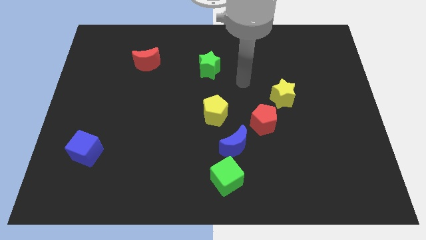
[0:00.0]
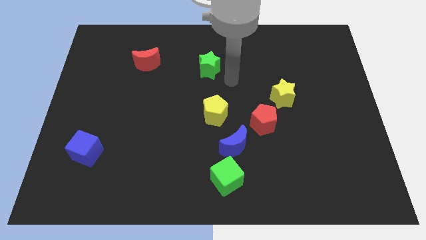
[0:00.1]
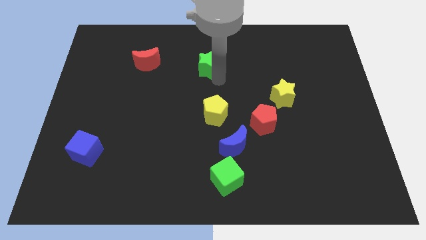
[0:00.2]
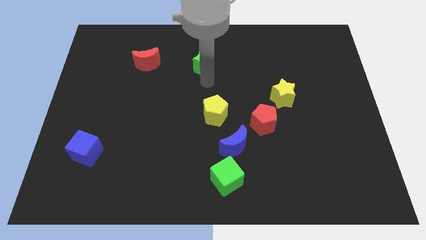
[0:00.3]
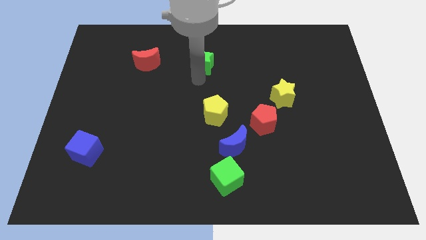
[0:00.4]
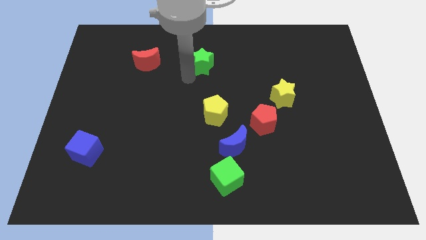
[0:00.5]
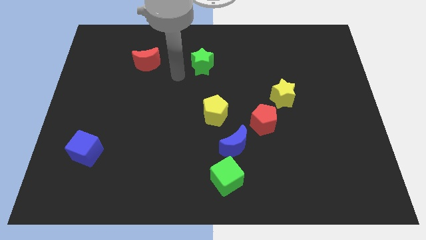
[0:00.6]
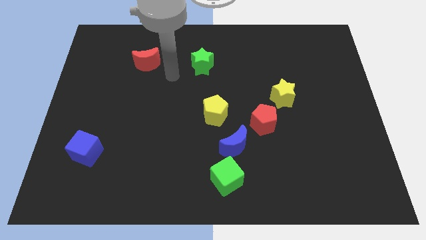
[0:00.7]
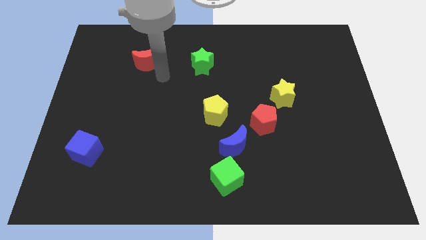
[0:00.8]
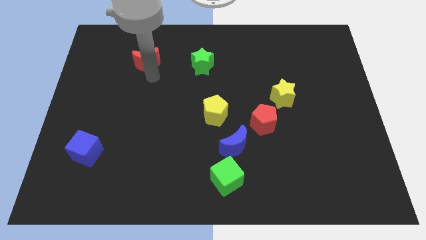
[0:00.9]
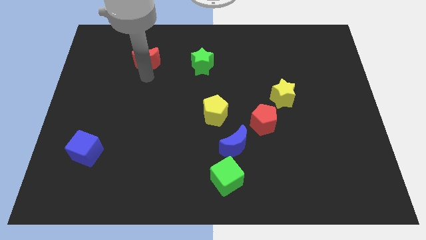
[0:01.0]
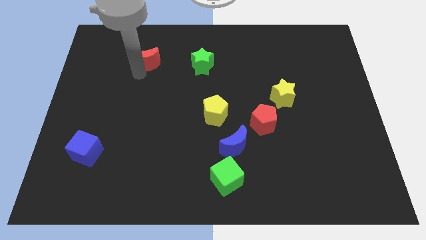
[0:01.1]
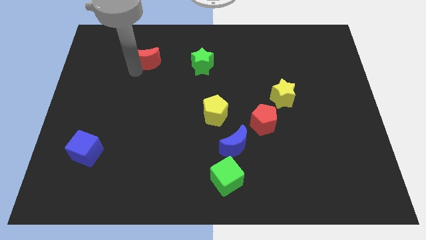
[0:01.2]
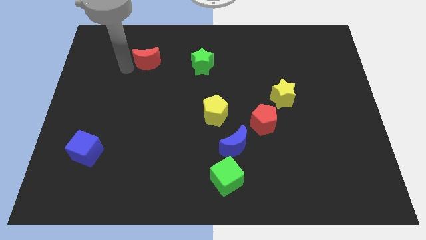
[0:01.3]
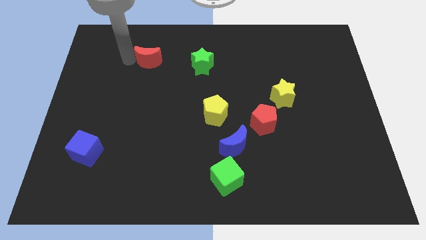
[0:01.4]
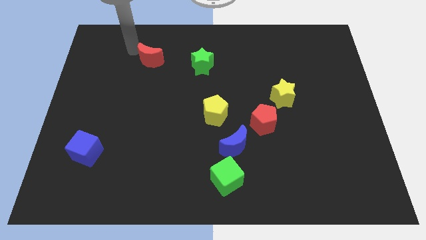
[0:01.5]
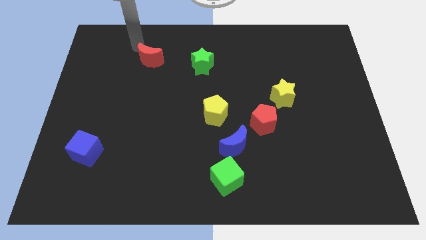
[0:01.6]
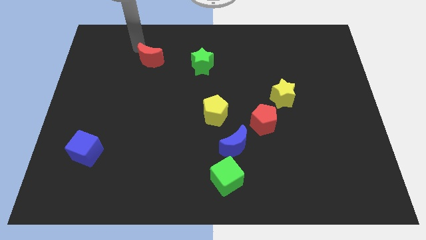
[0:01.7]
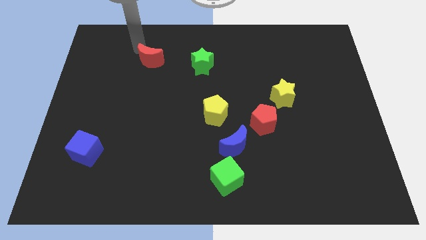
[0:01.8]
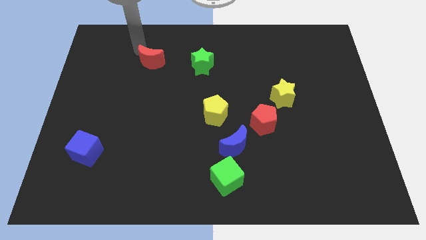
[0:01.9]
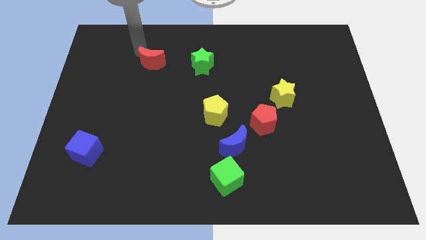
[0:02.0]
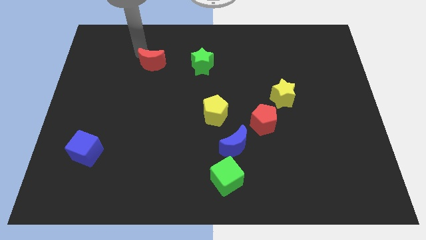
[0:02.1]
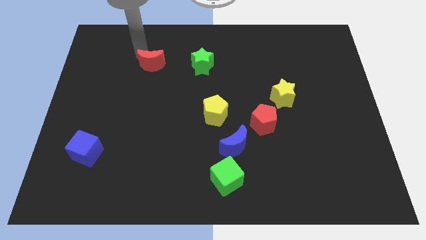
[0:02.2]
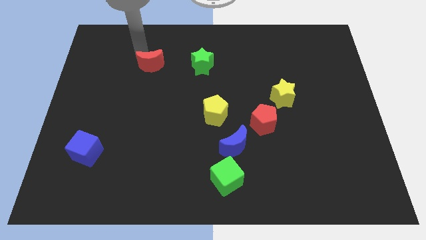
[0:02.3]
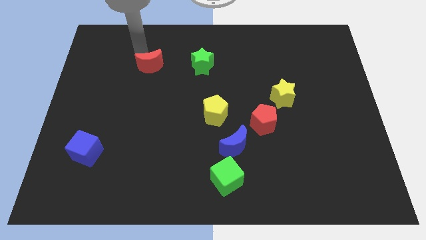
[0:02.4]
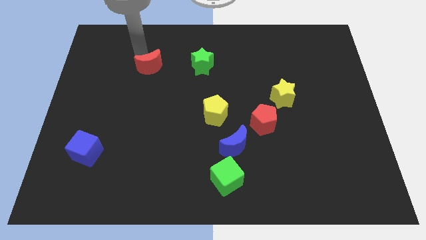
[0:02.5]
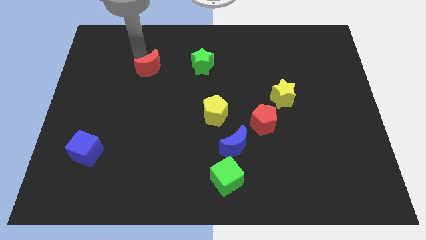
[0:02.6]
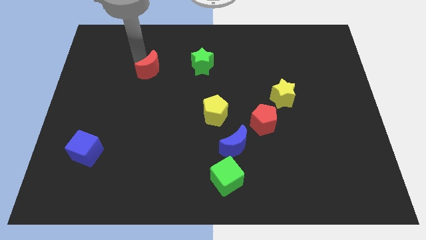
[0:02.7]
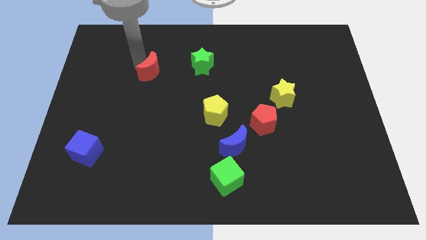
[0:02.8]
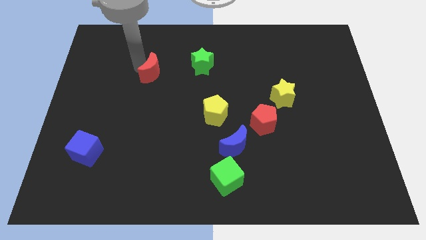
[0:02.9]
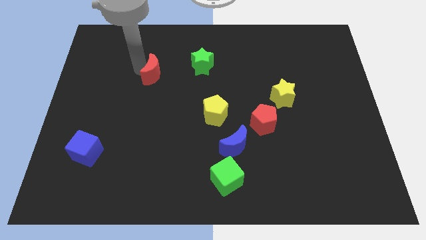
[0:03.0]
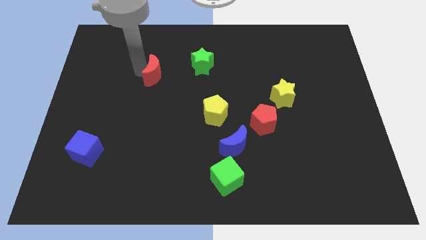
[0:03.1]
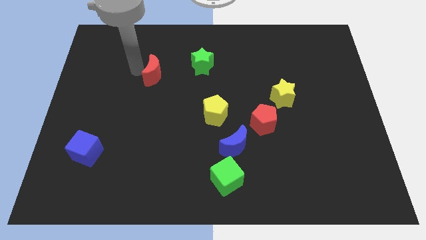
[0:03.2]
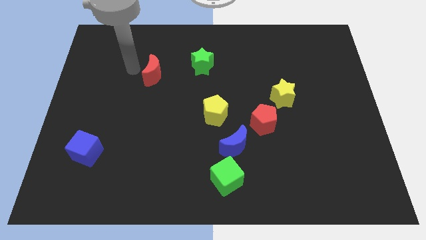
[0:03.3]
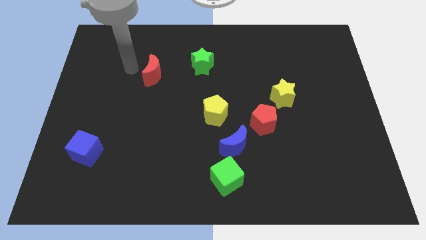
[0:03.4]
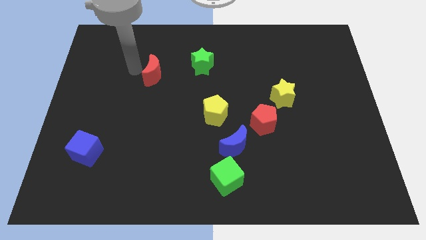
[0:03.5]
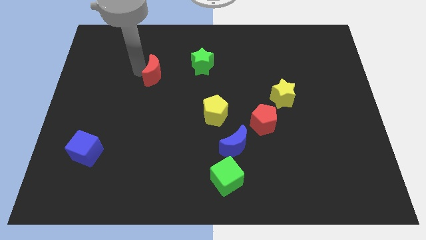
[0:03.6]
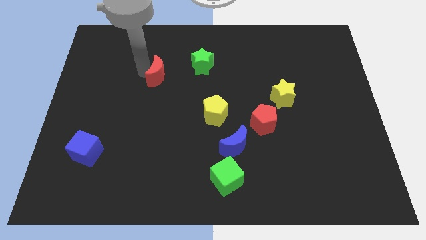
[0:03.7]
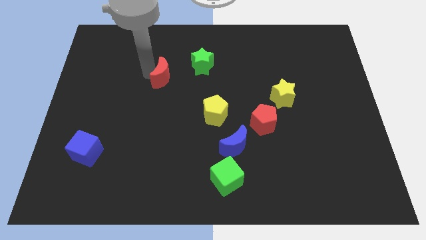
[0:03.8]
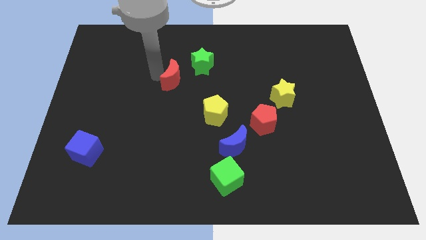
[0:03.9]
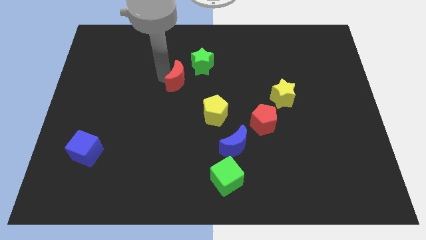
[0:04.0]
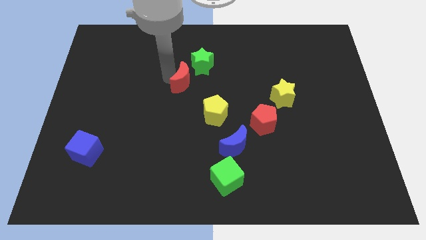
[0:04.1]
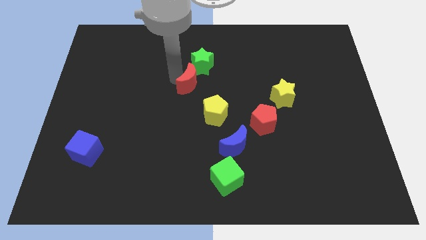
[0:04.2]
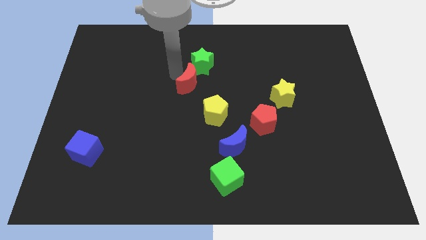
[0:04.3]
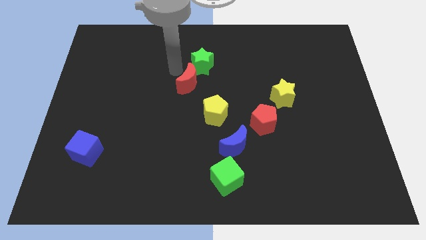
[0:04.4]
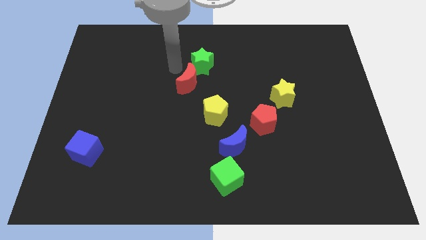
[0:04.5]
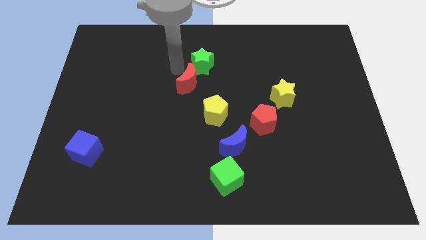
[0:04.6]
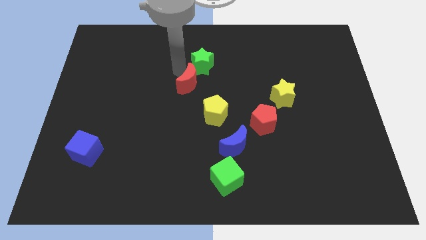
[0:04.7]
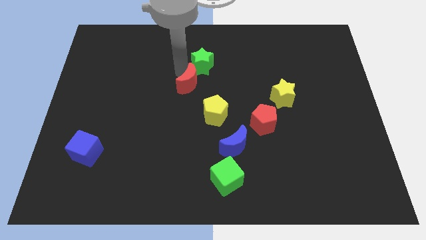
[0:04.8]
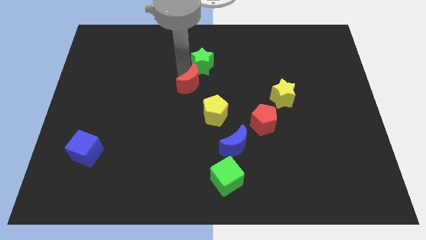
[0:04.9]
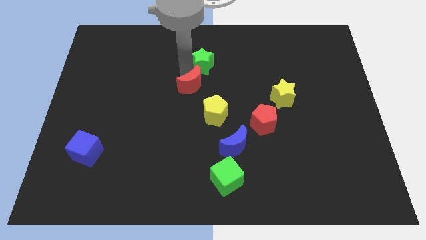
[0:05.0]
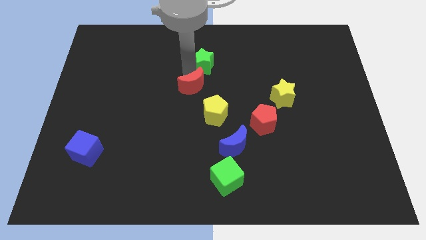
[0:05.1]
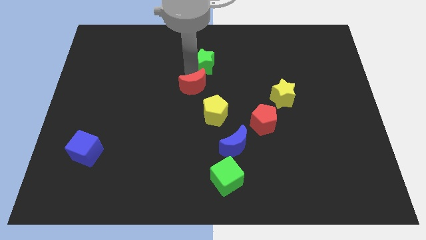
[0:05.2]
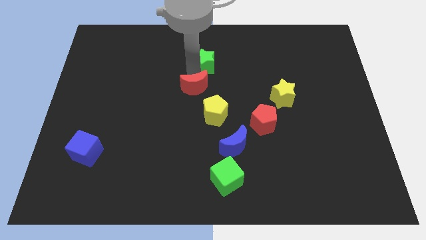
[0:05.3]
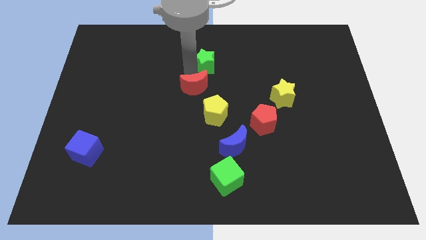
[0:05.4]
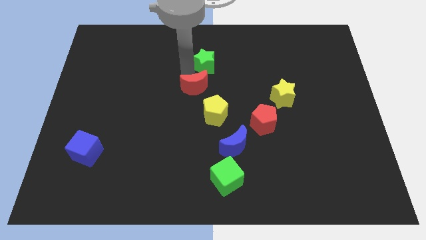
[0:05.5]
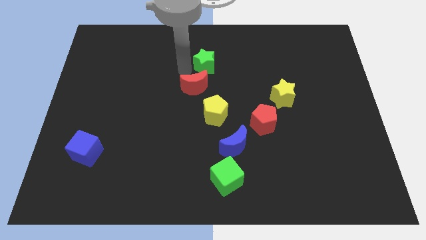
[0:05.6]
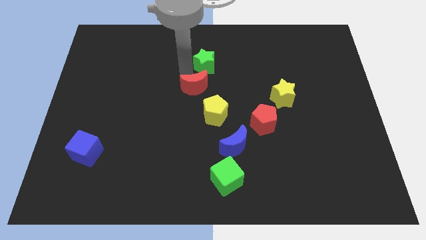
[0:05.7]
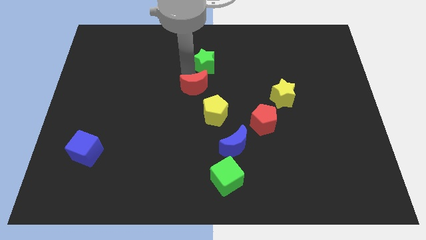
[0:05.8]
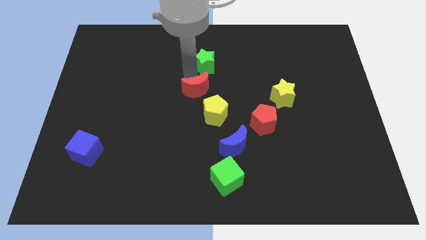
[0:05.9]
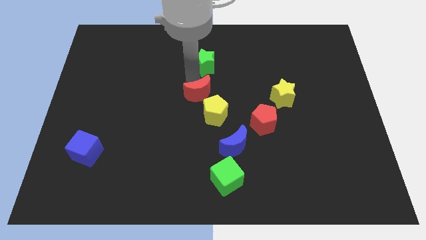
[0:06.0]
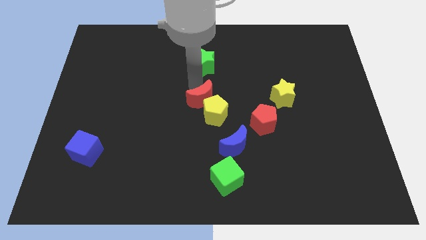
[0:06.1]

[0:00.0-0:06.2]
slide the red moon towards the yellow pentagon

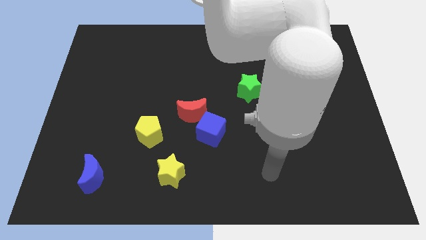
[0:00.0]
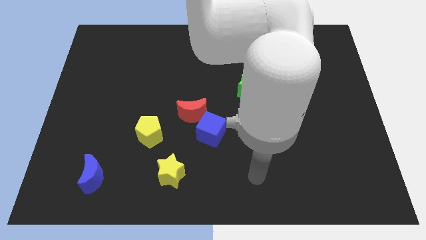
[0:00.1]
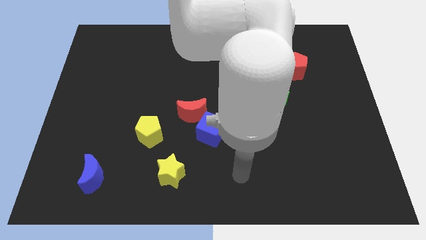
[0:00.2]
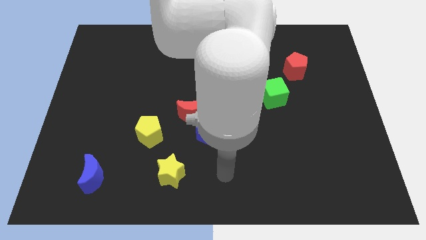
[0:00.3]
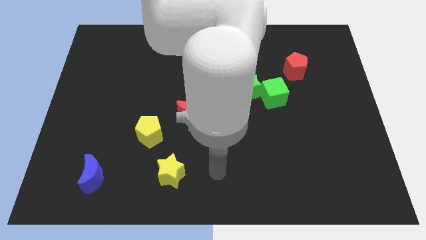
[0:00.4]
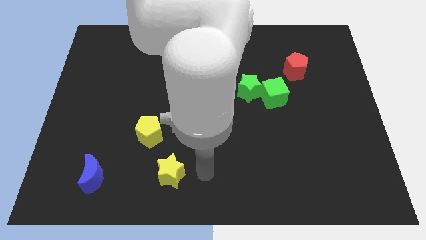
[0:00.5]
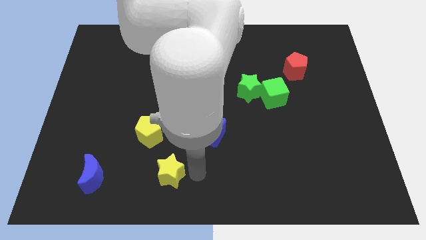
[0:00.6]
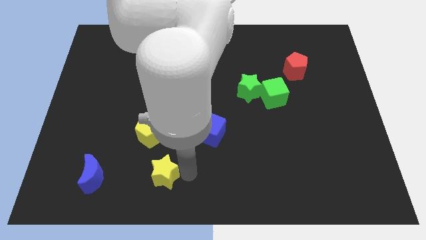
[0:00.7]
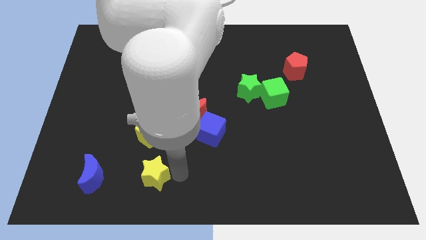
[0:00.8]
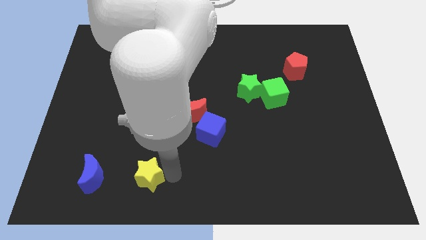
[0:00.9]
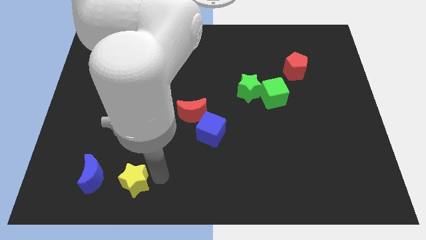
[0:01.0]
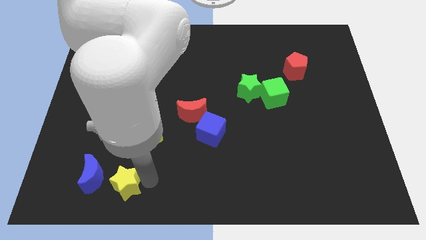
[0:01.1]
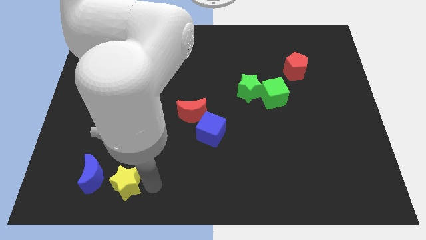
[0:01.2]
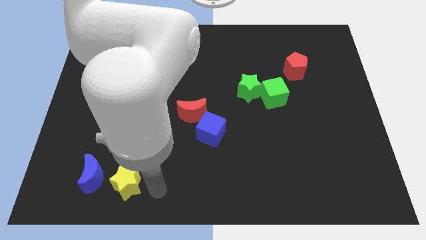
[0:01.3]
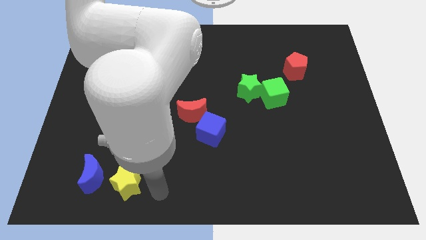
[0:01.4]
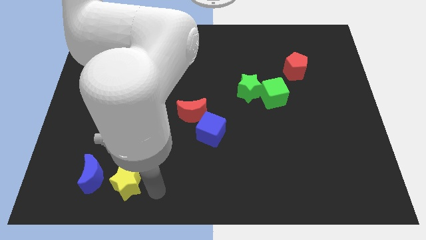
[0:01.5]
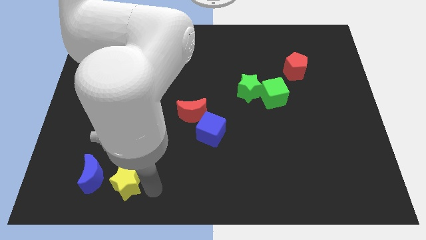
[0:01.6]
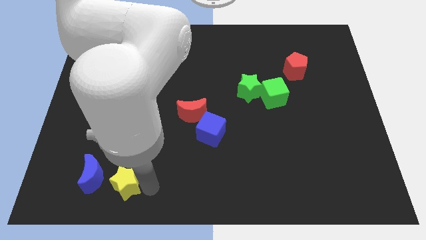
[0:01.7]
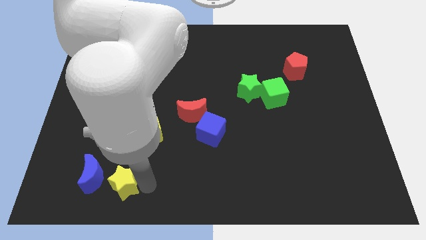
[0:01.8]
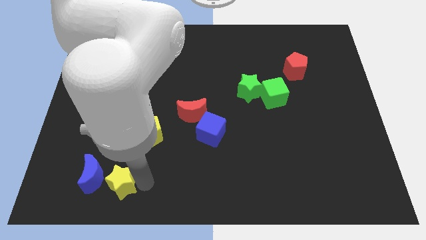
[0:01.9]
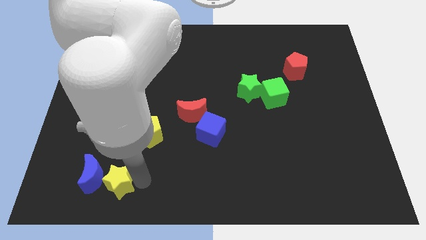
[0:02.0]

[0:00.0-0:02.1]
put the yellow star close to the blue moon
